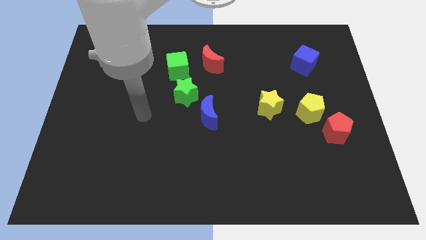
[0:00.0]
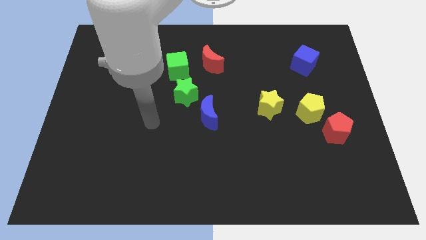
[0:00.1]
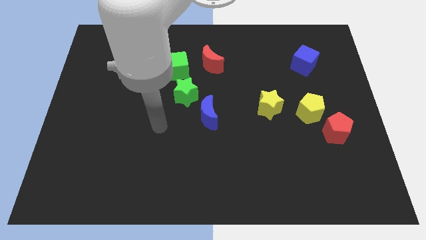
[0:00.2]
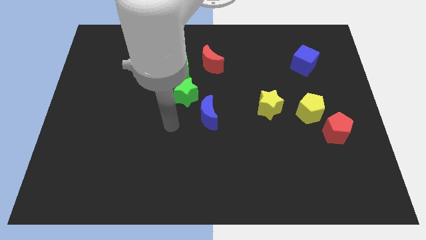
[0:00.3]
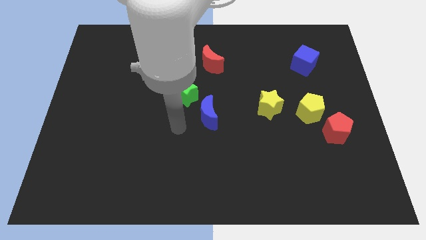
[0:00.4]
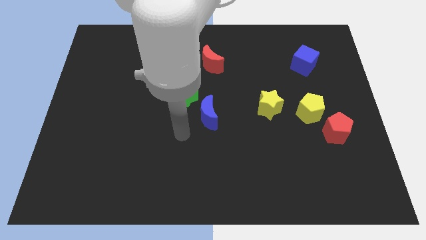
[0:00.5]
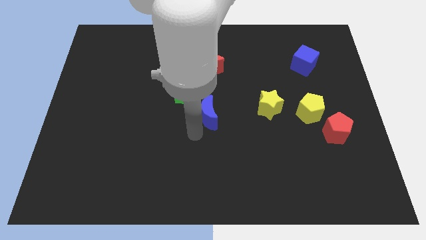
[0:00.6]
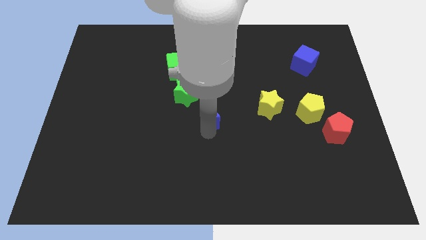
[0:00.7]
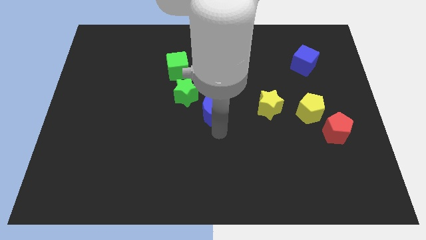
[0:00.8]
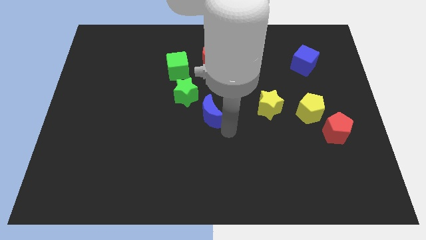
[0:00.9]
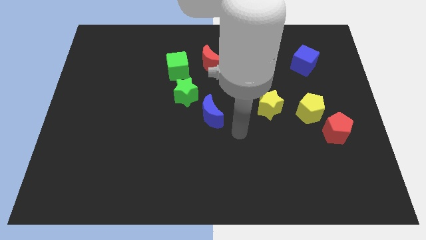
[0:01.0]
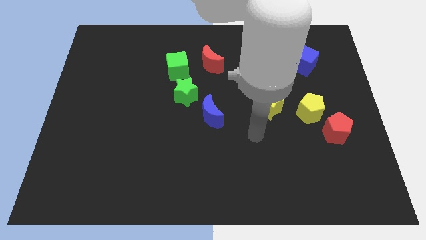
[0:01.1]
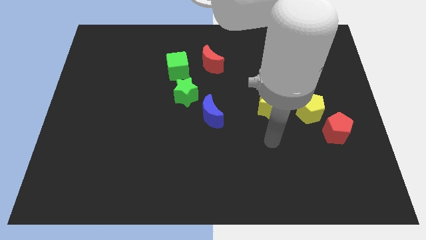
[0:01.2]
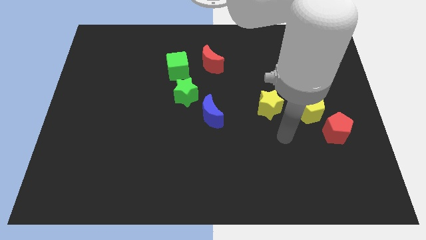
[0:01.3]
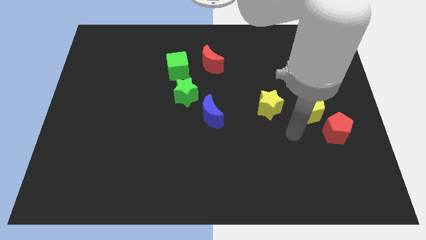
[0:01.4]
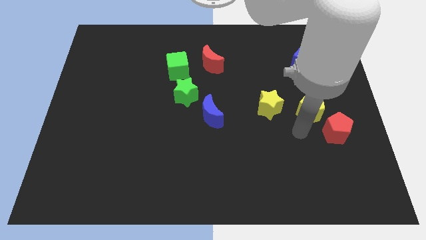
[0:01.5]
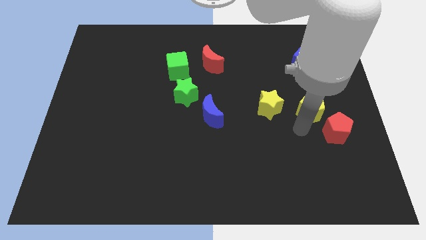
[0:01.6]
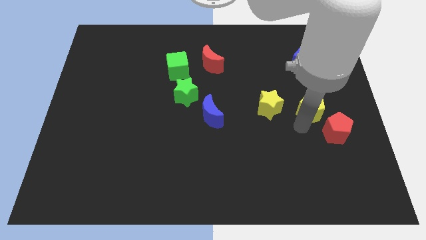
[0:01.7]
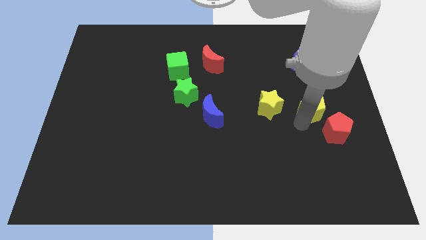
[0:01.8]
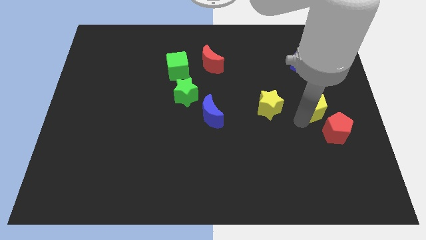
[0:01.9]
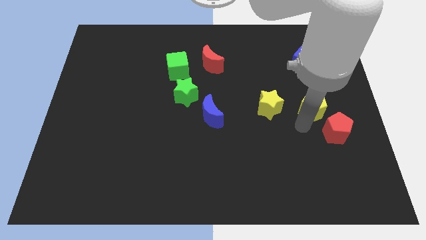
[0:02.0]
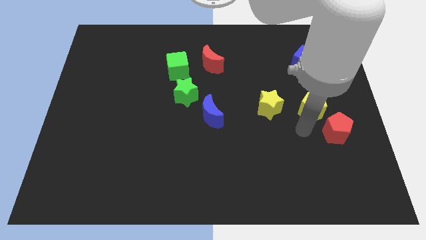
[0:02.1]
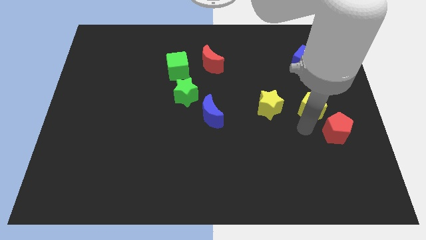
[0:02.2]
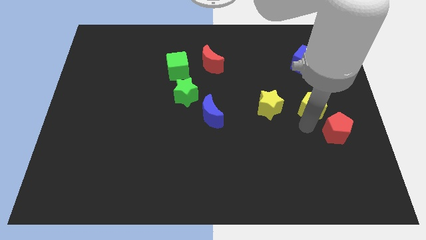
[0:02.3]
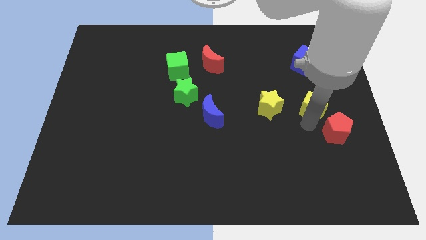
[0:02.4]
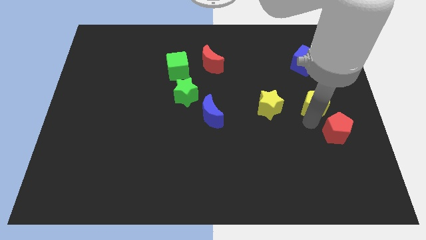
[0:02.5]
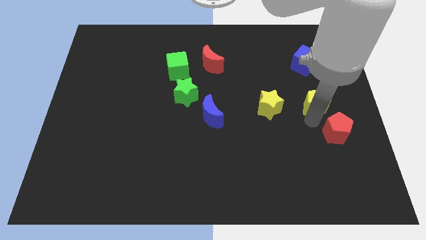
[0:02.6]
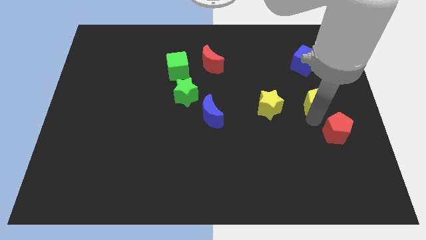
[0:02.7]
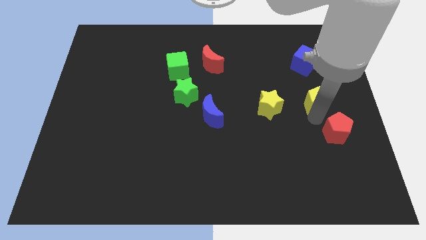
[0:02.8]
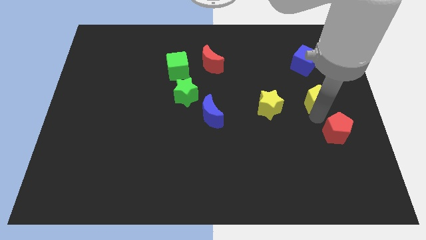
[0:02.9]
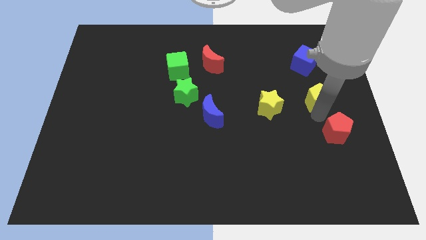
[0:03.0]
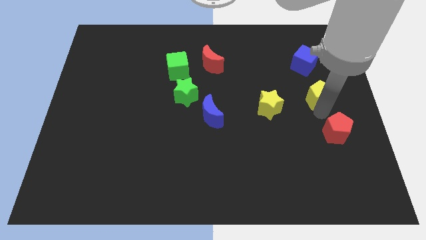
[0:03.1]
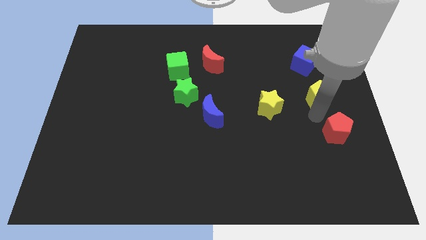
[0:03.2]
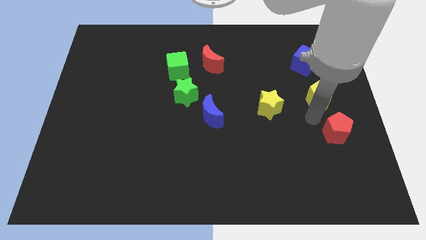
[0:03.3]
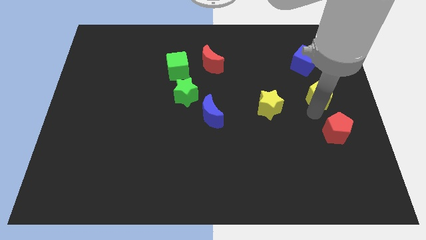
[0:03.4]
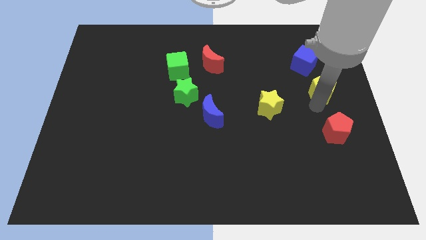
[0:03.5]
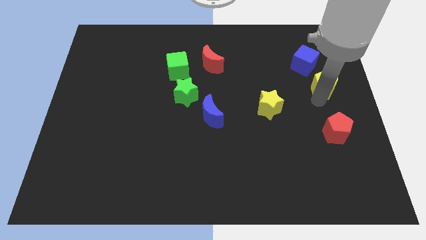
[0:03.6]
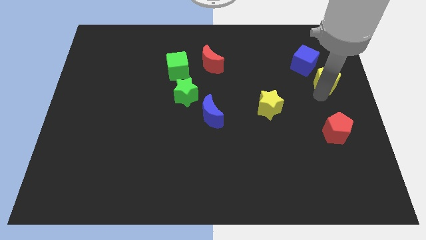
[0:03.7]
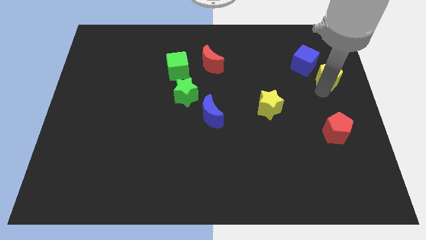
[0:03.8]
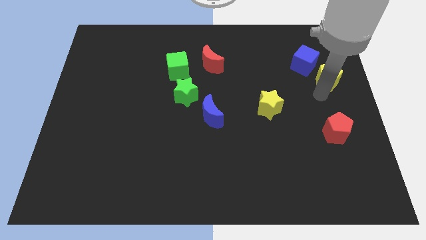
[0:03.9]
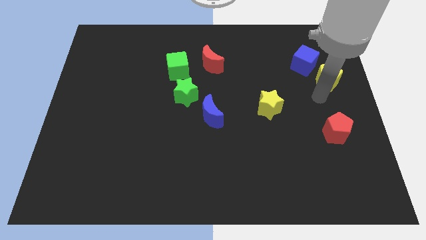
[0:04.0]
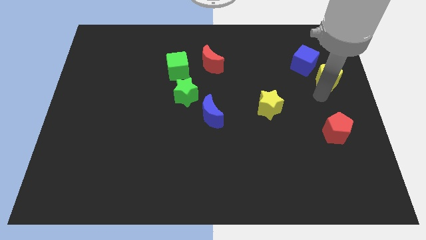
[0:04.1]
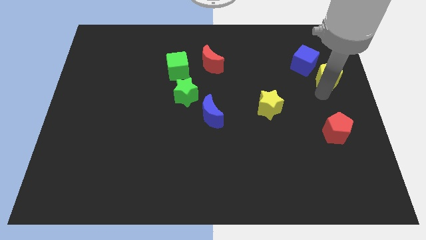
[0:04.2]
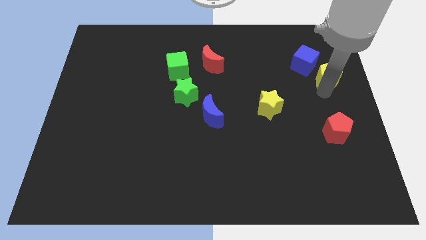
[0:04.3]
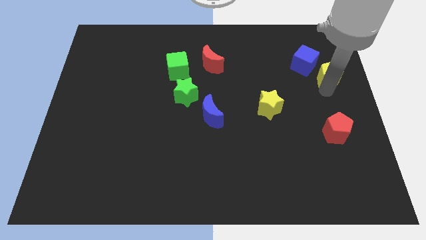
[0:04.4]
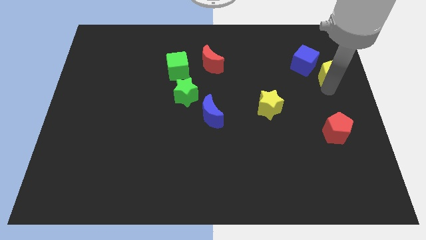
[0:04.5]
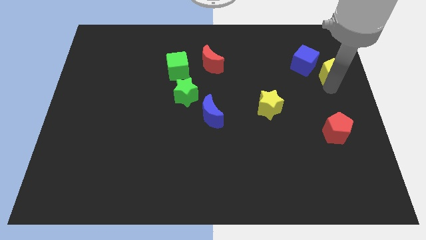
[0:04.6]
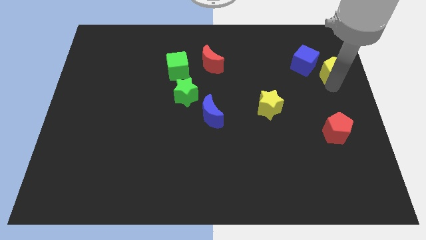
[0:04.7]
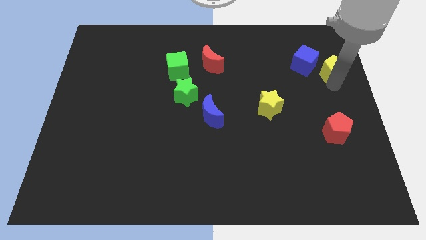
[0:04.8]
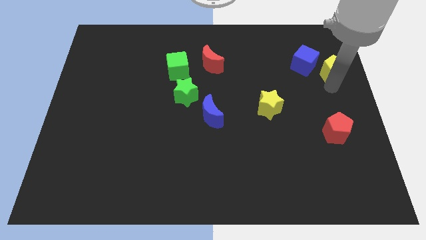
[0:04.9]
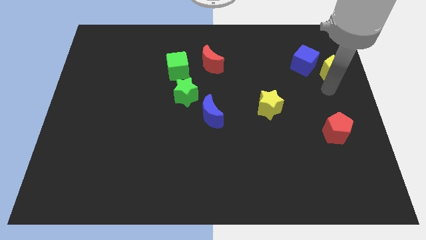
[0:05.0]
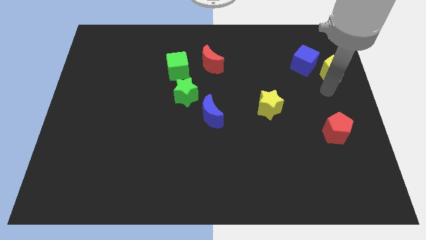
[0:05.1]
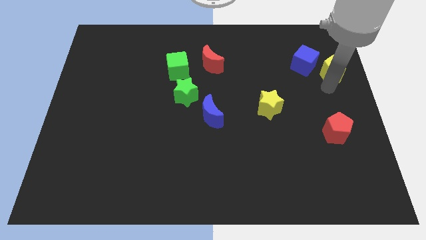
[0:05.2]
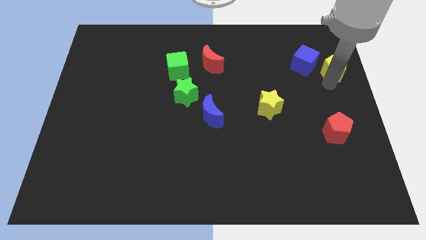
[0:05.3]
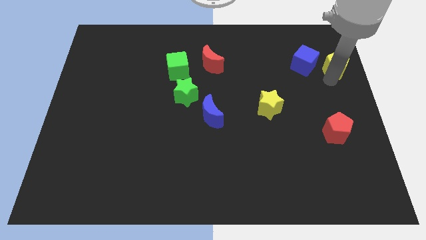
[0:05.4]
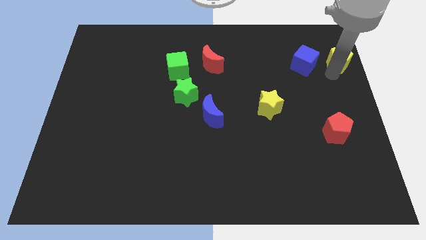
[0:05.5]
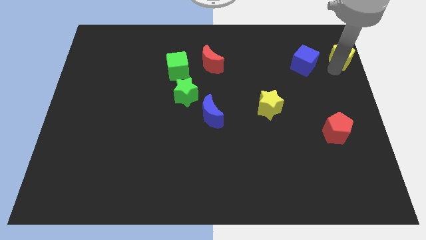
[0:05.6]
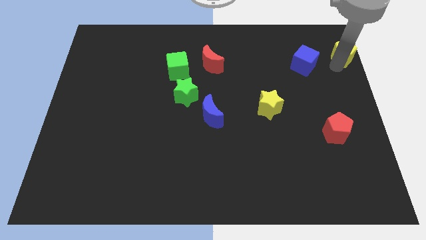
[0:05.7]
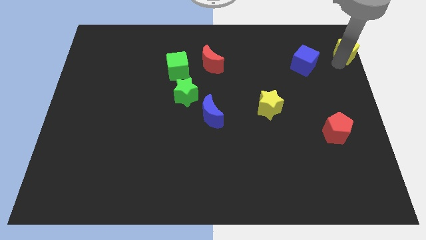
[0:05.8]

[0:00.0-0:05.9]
move the yellow pentagon to the top right corner
